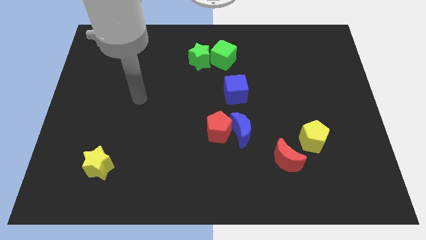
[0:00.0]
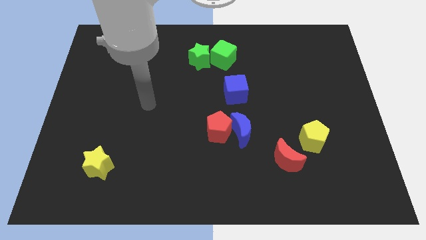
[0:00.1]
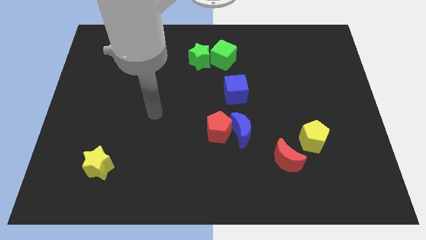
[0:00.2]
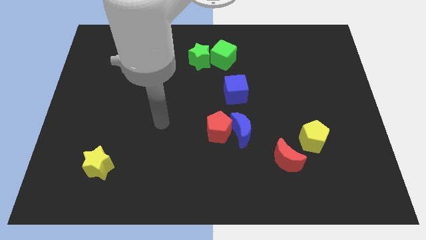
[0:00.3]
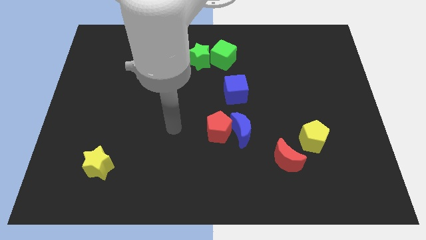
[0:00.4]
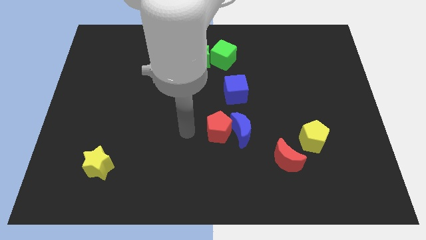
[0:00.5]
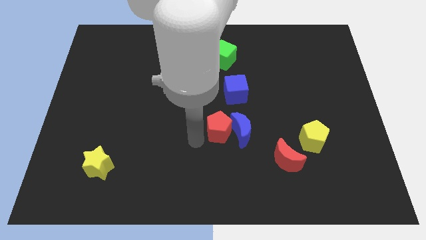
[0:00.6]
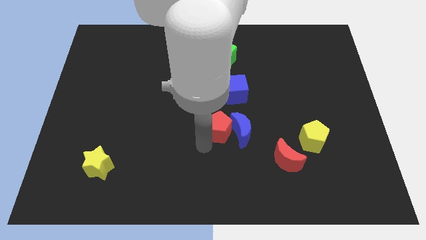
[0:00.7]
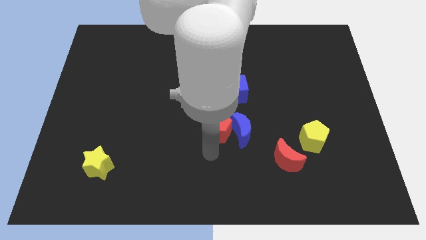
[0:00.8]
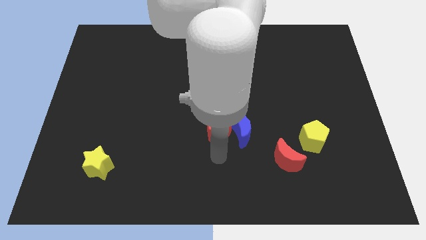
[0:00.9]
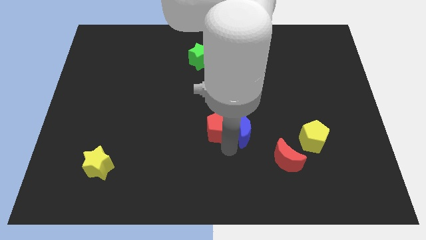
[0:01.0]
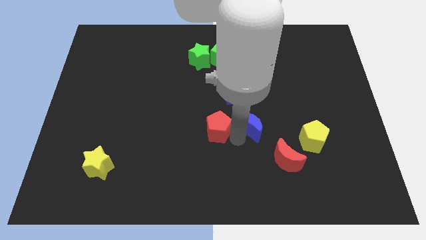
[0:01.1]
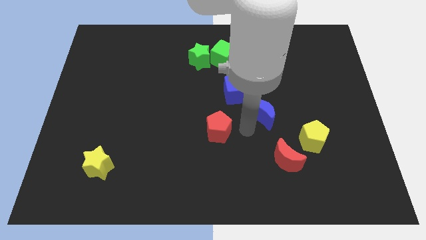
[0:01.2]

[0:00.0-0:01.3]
pull the red pentagon apart from the blue moon

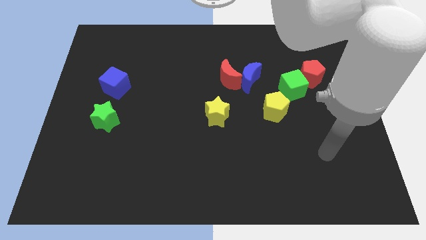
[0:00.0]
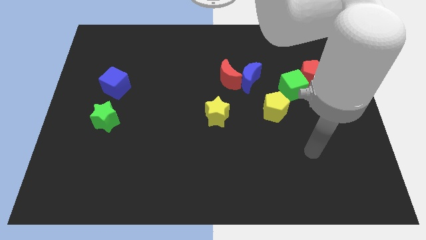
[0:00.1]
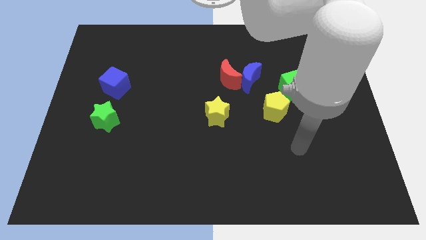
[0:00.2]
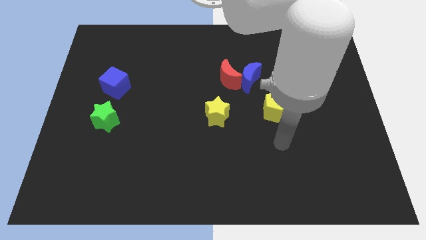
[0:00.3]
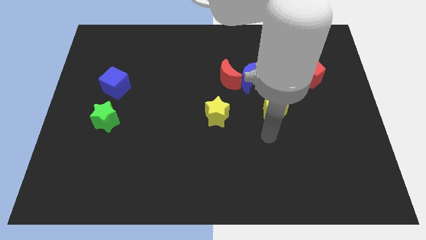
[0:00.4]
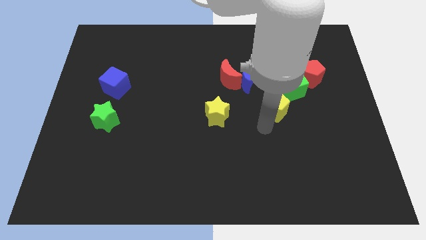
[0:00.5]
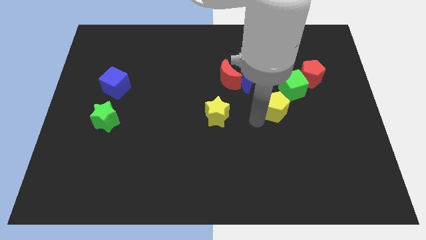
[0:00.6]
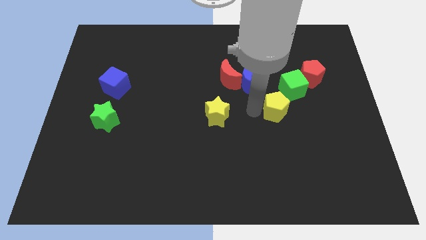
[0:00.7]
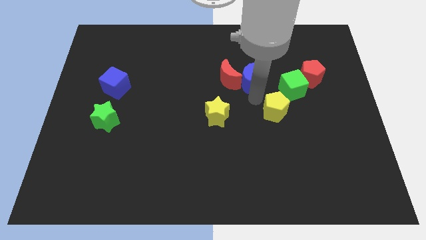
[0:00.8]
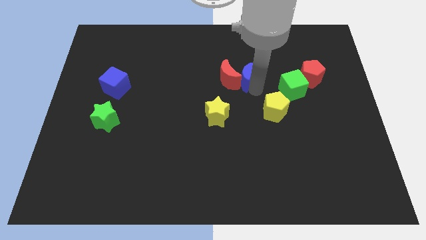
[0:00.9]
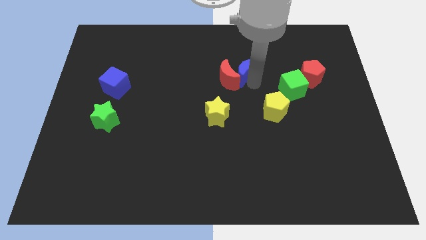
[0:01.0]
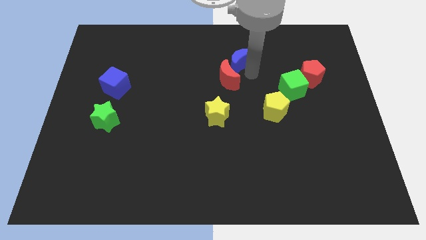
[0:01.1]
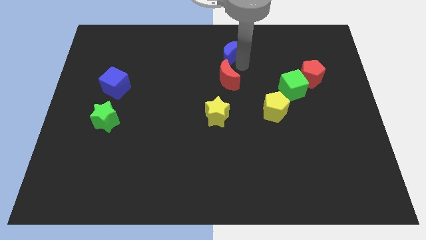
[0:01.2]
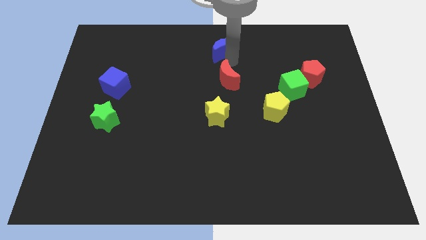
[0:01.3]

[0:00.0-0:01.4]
pull the red moon apart from the blue moon

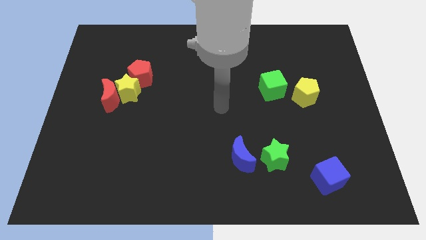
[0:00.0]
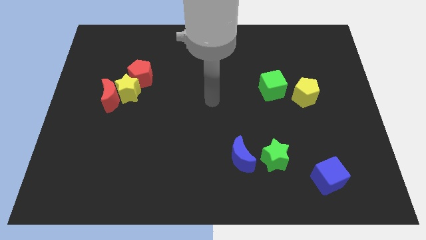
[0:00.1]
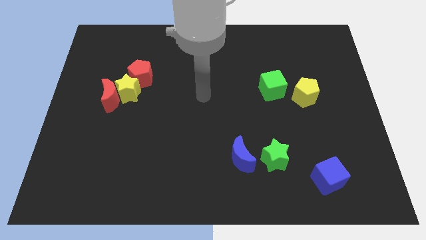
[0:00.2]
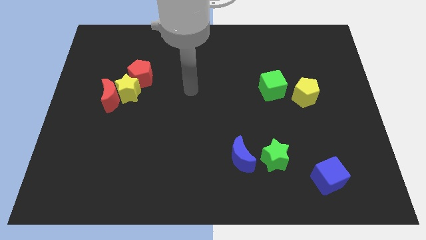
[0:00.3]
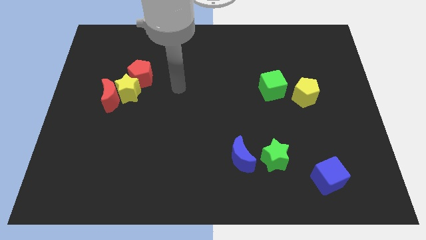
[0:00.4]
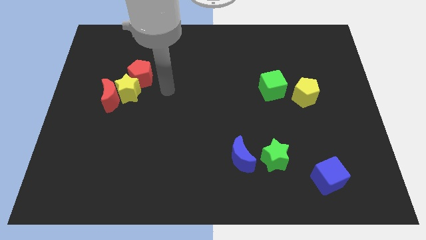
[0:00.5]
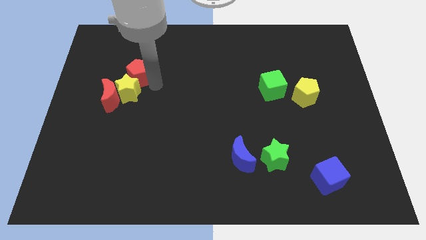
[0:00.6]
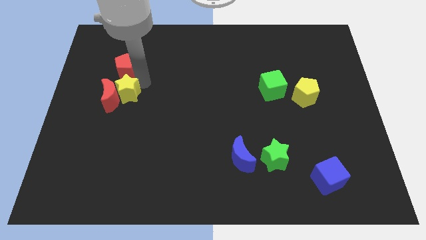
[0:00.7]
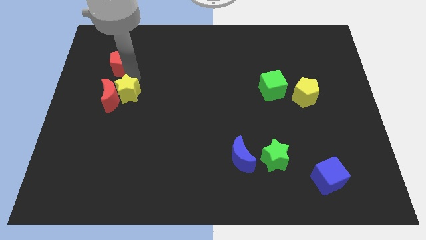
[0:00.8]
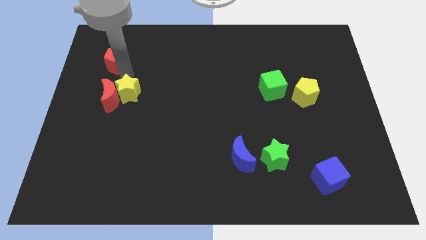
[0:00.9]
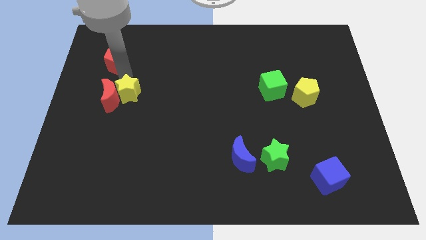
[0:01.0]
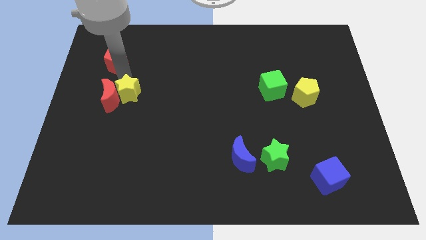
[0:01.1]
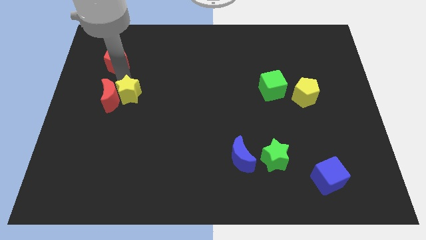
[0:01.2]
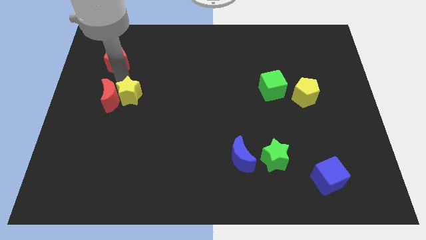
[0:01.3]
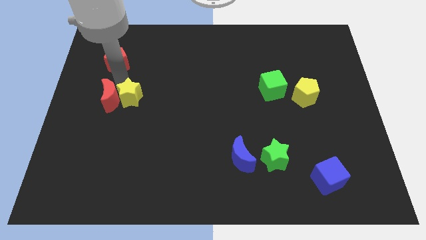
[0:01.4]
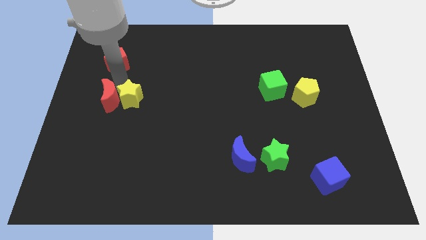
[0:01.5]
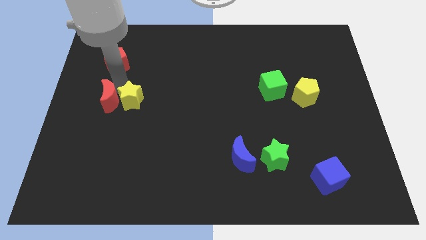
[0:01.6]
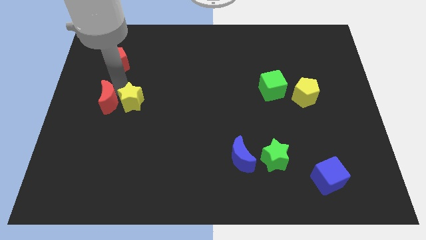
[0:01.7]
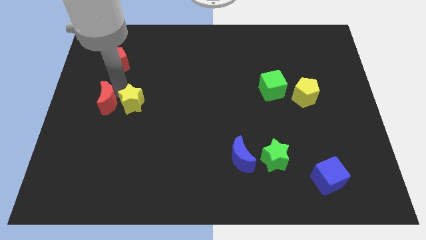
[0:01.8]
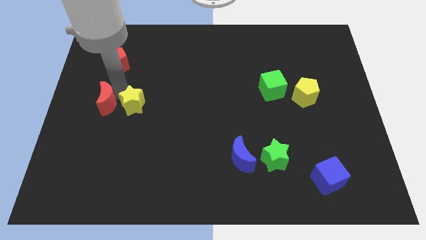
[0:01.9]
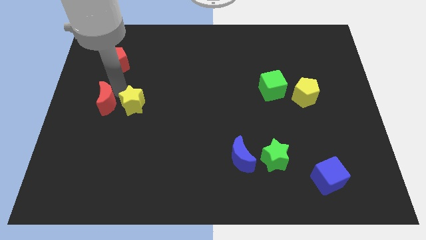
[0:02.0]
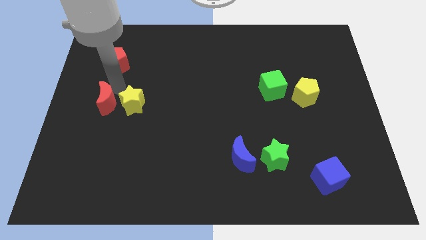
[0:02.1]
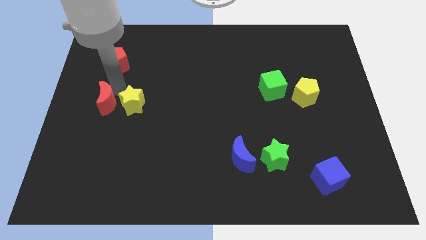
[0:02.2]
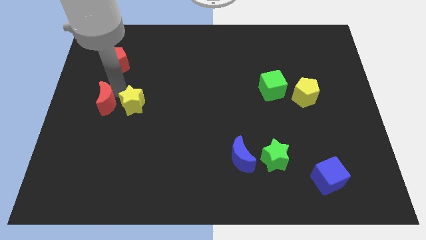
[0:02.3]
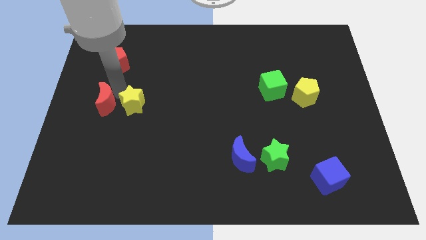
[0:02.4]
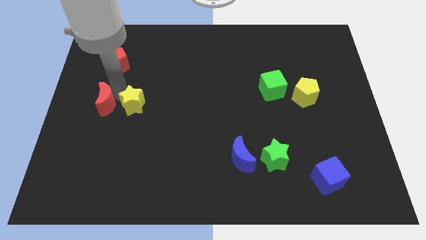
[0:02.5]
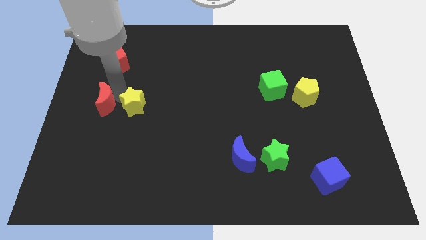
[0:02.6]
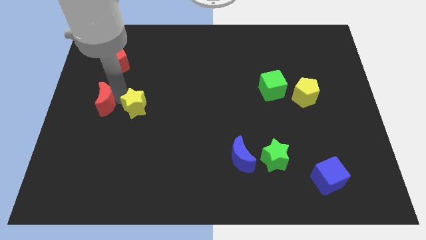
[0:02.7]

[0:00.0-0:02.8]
move the yellow star away from the red moon and red pentagon

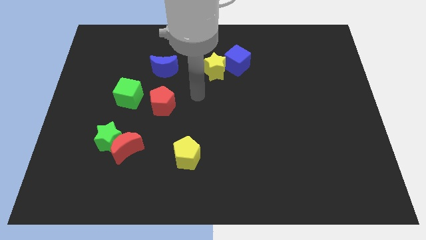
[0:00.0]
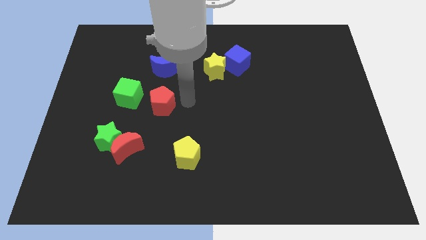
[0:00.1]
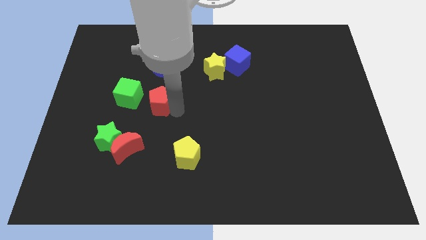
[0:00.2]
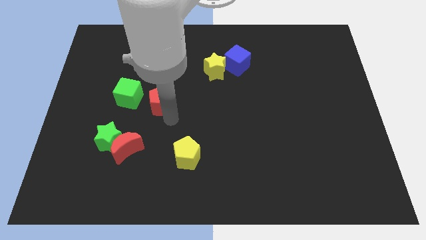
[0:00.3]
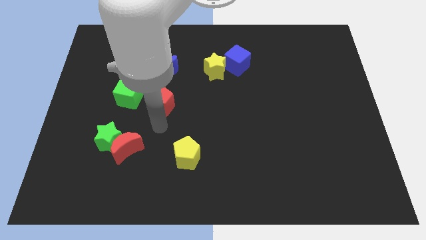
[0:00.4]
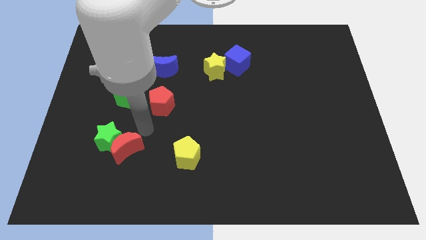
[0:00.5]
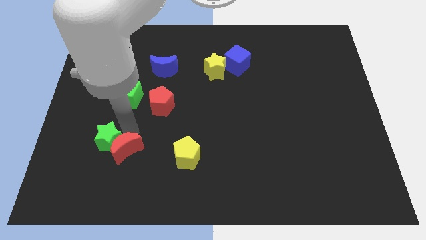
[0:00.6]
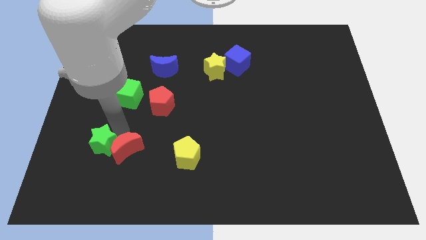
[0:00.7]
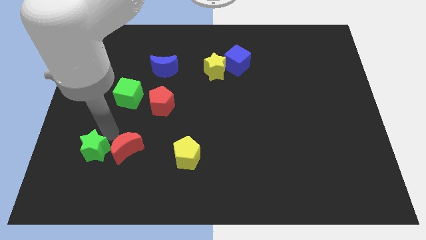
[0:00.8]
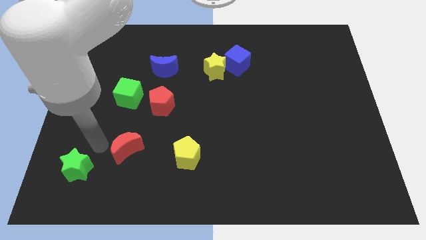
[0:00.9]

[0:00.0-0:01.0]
separate the red moon from the green star

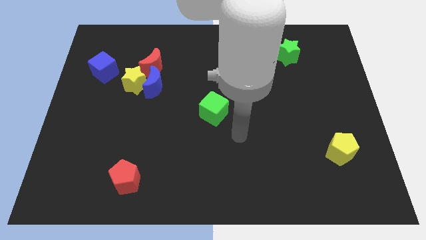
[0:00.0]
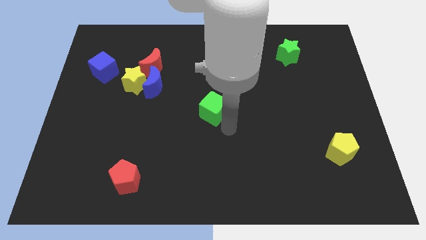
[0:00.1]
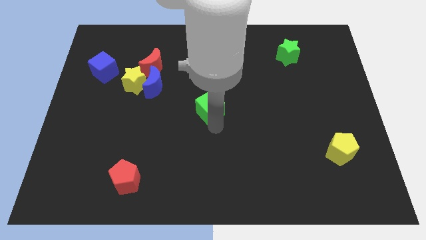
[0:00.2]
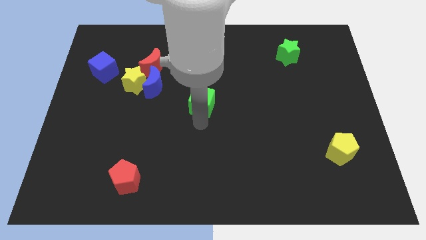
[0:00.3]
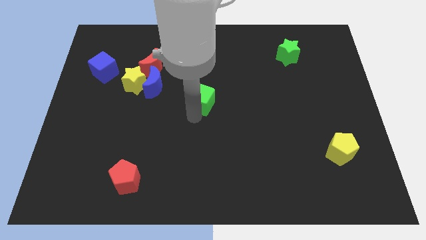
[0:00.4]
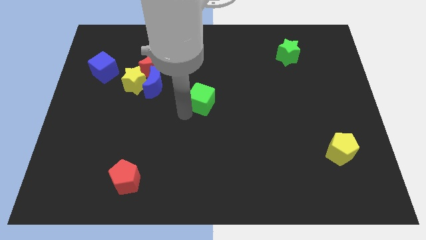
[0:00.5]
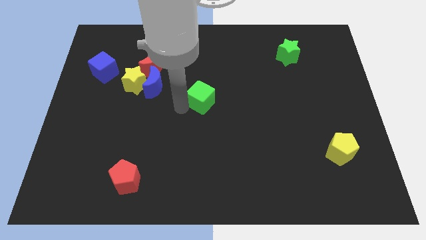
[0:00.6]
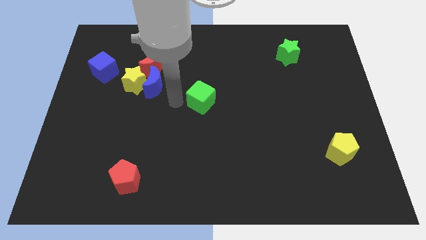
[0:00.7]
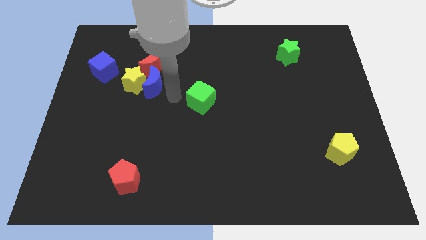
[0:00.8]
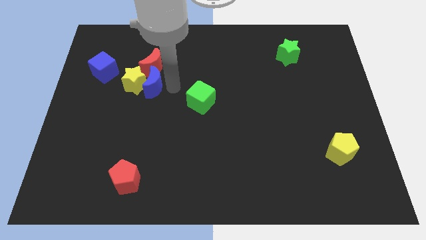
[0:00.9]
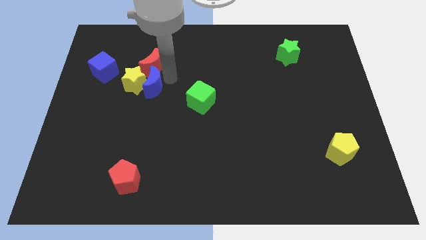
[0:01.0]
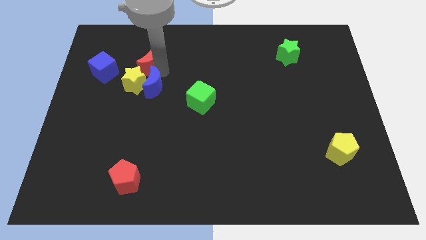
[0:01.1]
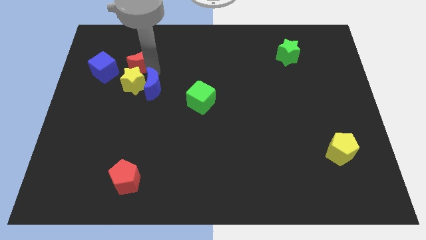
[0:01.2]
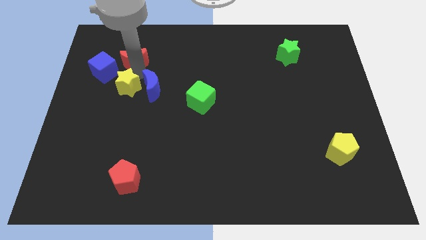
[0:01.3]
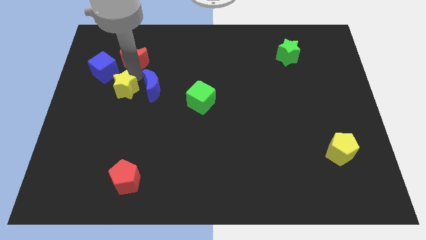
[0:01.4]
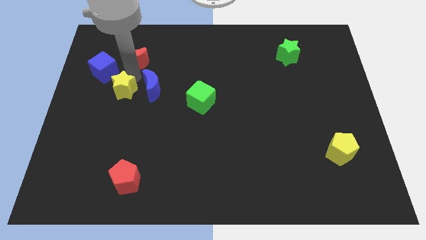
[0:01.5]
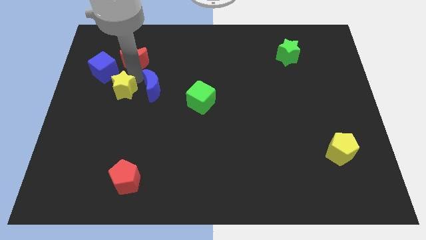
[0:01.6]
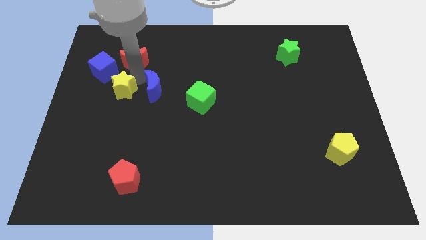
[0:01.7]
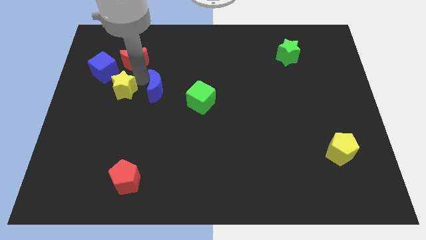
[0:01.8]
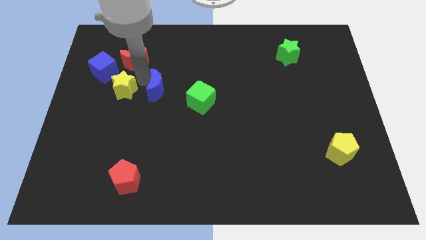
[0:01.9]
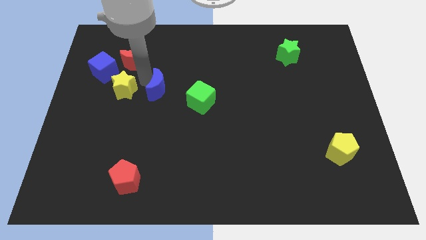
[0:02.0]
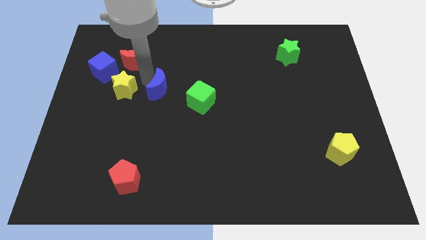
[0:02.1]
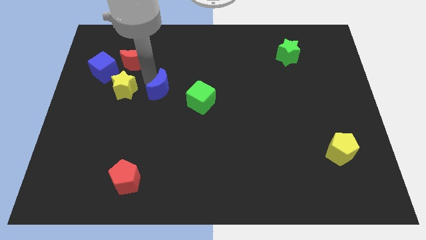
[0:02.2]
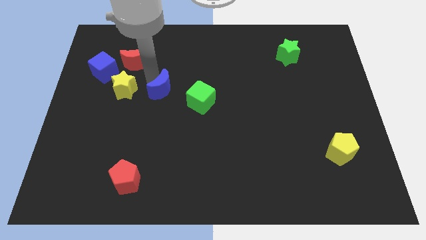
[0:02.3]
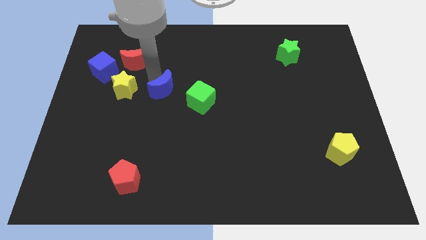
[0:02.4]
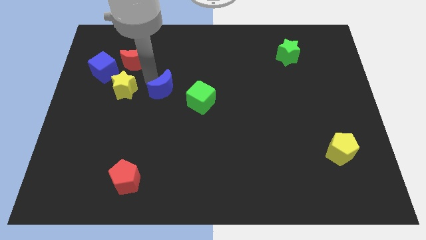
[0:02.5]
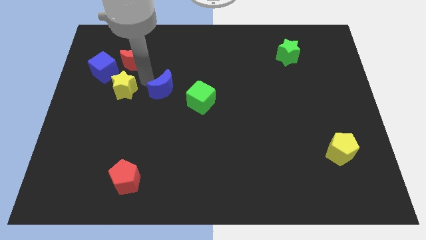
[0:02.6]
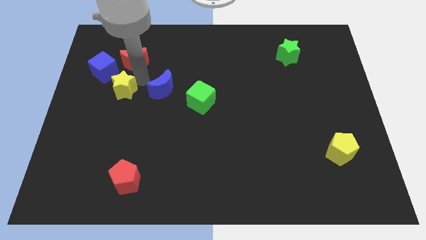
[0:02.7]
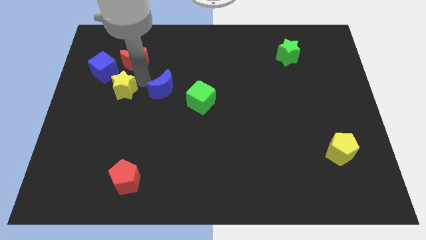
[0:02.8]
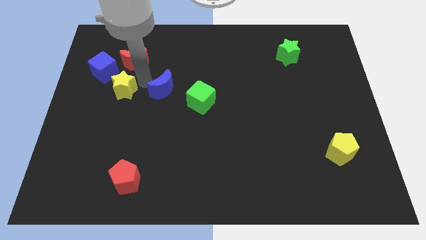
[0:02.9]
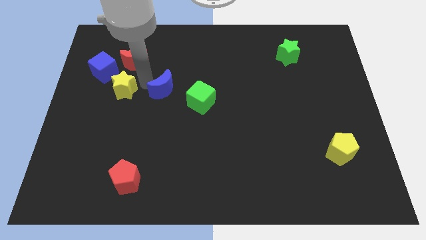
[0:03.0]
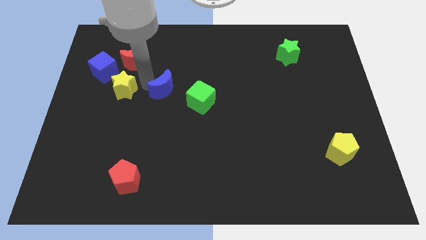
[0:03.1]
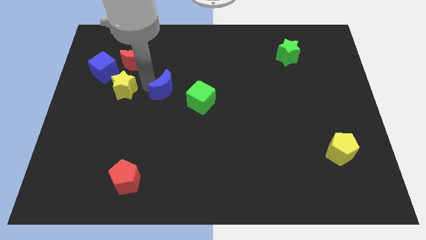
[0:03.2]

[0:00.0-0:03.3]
move the blue moon away from the yellow star and red moon
